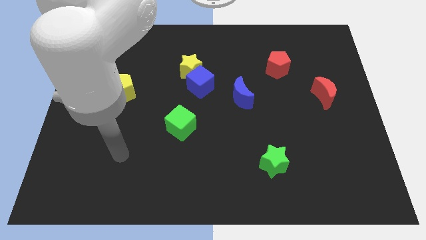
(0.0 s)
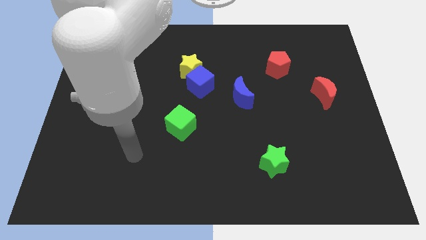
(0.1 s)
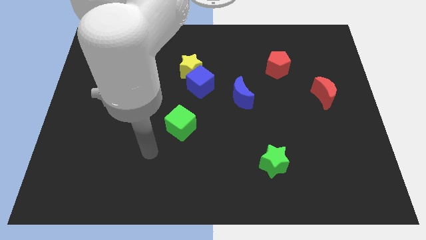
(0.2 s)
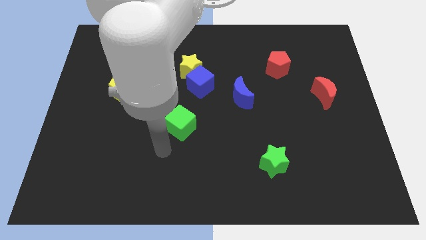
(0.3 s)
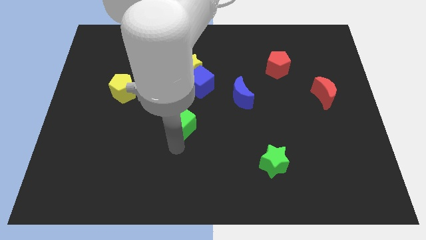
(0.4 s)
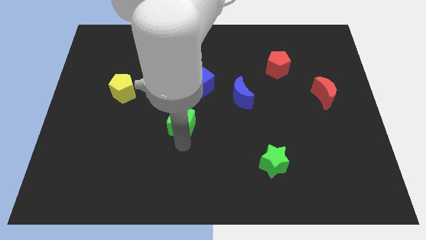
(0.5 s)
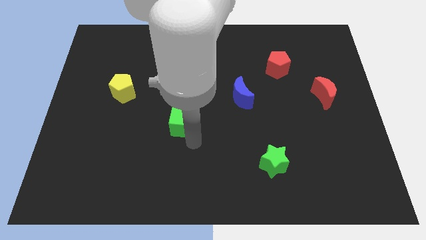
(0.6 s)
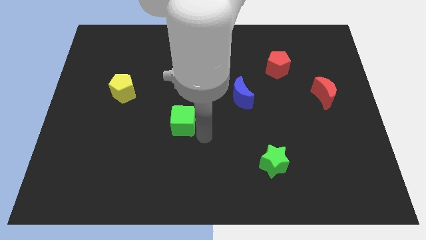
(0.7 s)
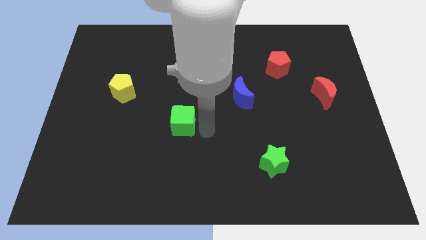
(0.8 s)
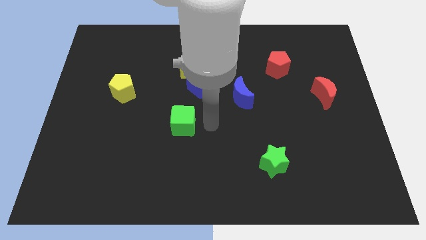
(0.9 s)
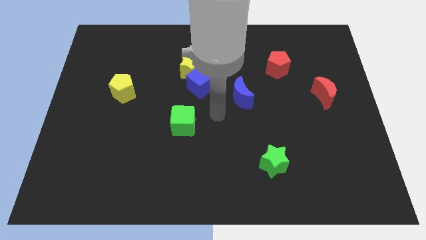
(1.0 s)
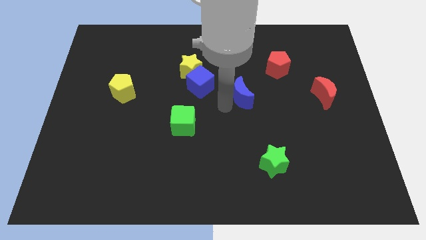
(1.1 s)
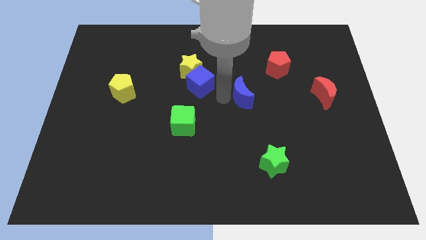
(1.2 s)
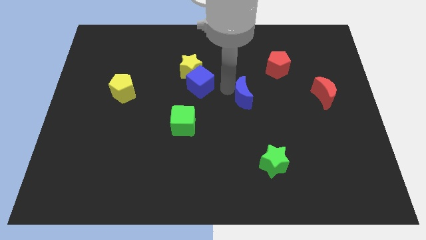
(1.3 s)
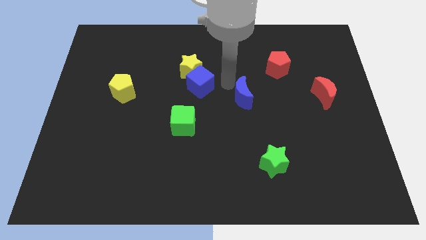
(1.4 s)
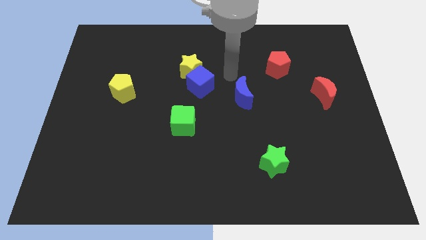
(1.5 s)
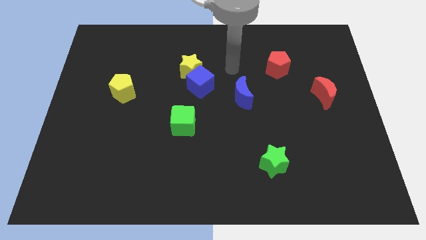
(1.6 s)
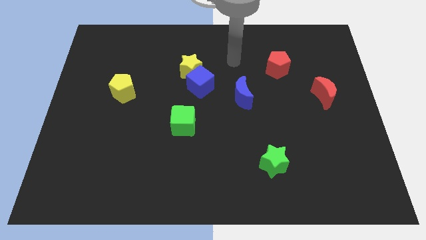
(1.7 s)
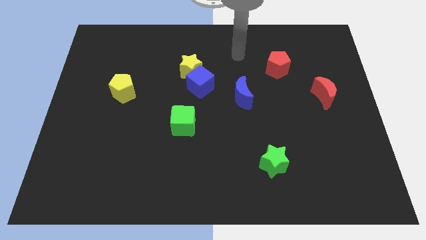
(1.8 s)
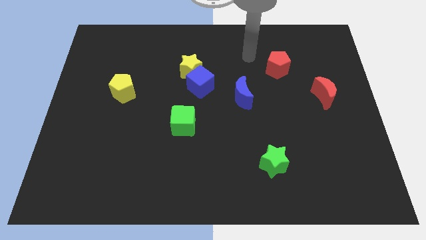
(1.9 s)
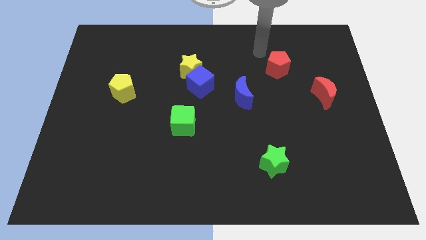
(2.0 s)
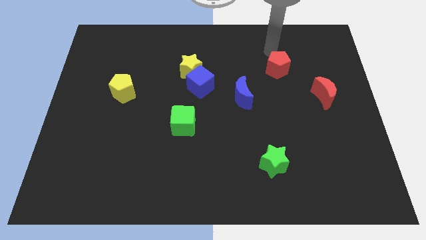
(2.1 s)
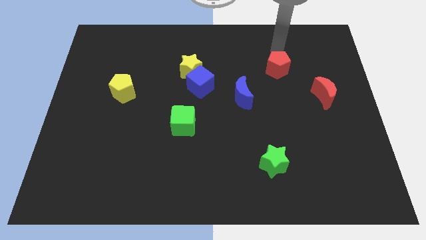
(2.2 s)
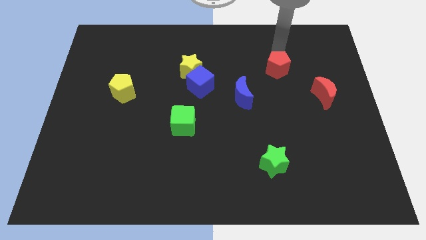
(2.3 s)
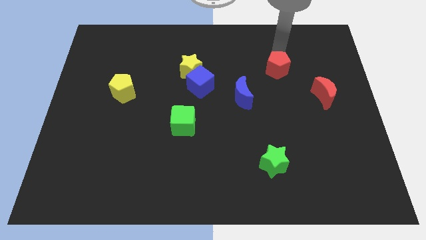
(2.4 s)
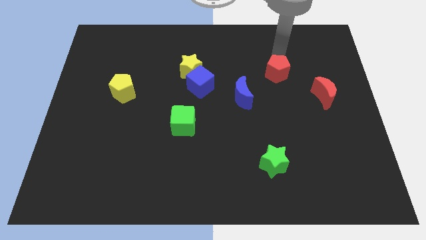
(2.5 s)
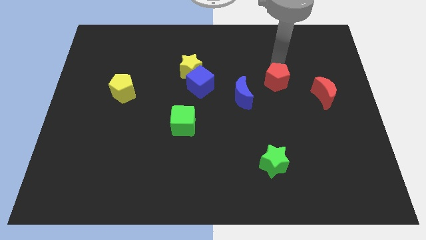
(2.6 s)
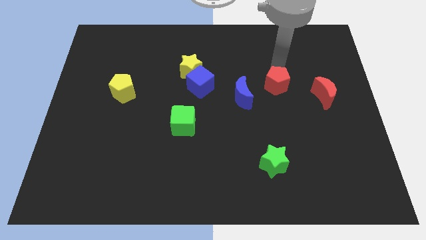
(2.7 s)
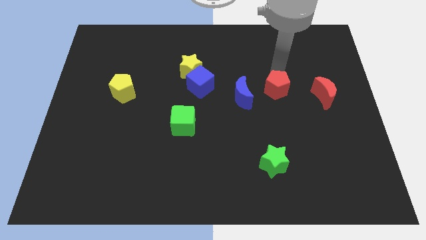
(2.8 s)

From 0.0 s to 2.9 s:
move the red pentagon down somewhat

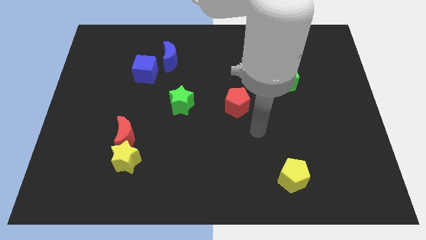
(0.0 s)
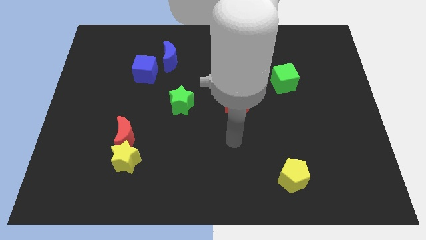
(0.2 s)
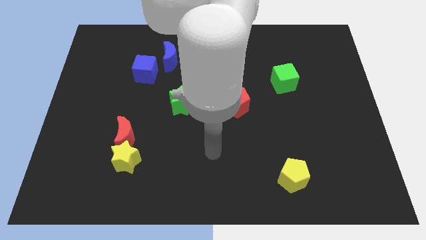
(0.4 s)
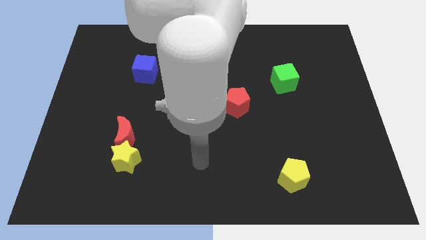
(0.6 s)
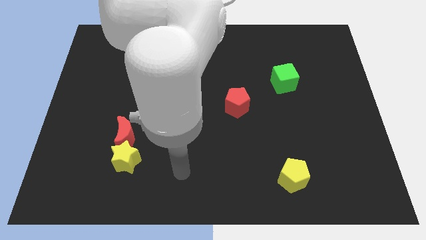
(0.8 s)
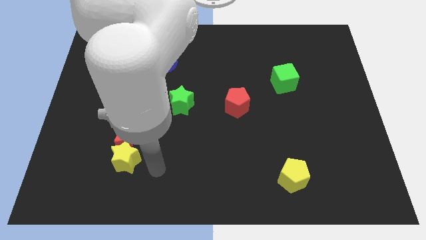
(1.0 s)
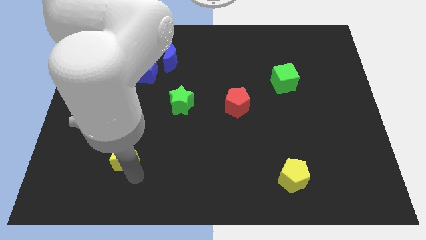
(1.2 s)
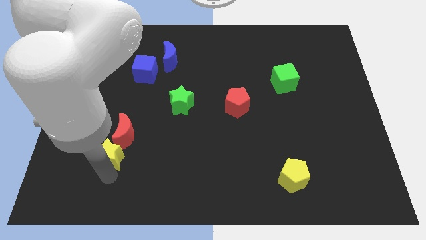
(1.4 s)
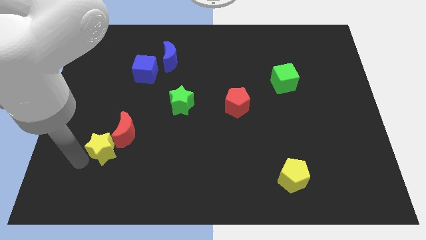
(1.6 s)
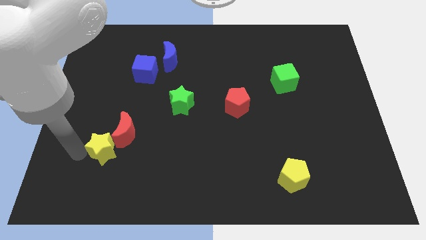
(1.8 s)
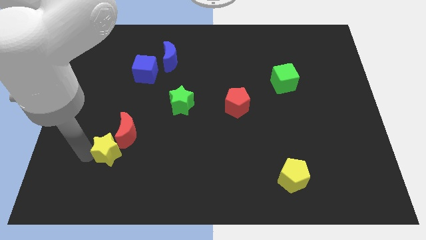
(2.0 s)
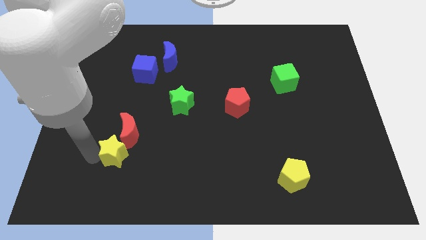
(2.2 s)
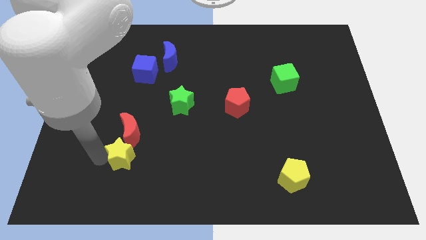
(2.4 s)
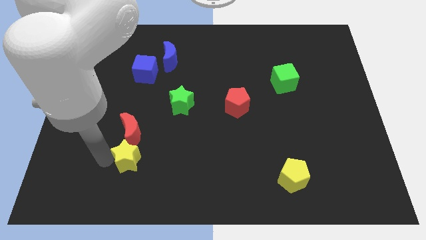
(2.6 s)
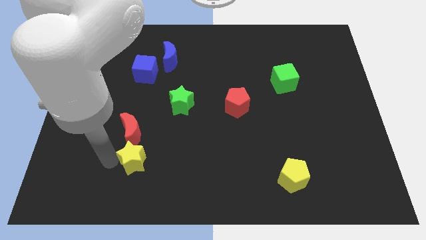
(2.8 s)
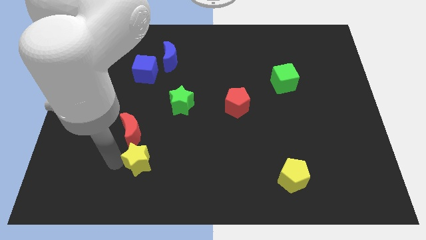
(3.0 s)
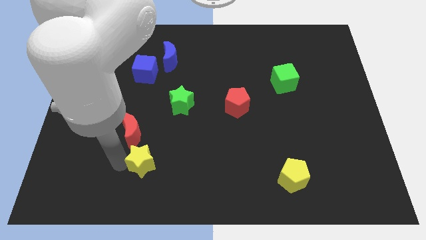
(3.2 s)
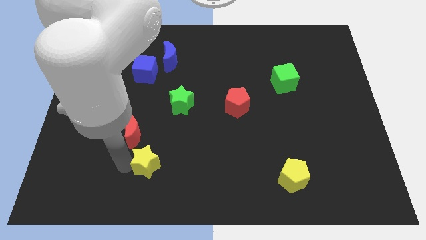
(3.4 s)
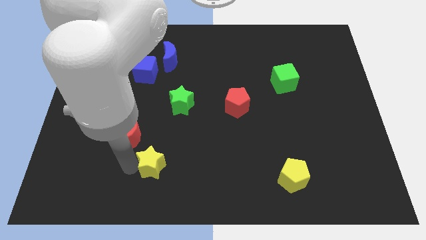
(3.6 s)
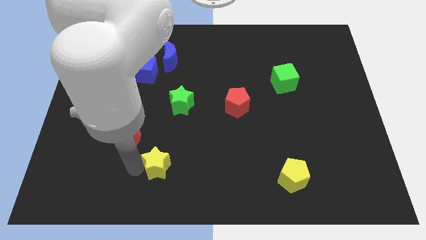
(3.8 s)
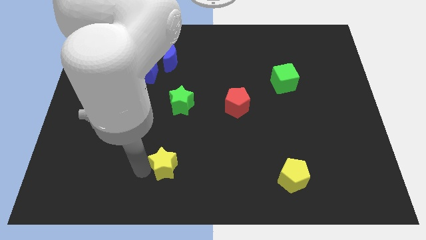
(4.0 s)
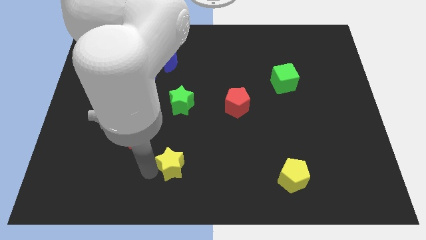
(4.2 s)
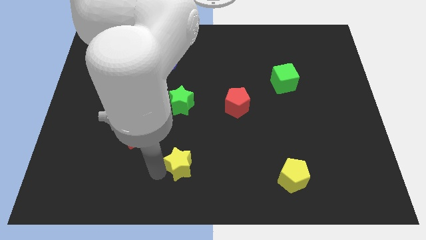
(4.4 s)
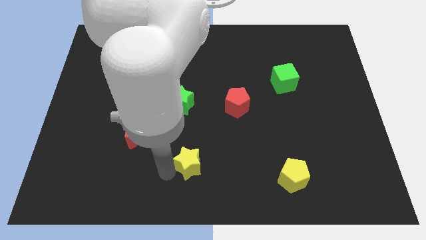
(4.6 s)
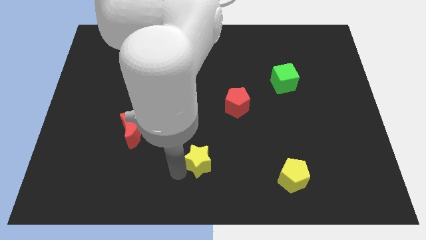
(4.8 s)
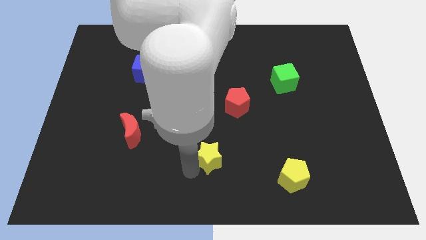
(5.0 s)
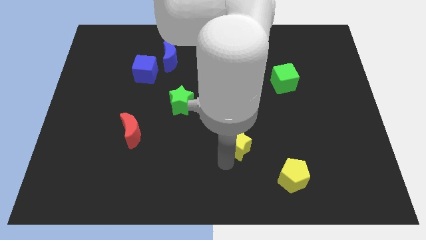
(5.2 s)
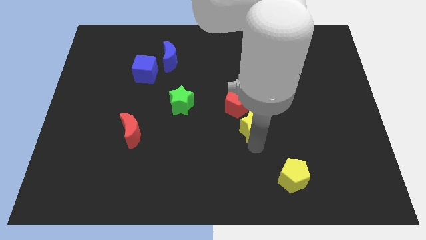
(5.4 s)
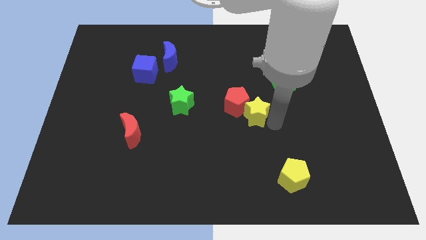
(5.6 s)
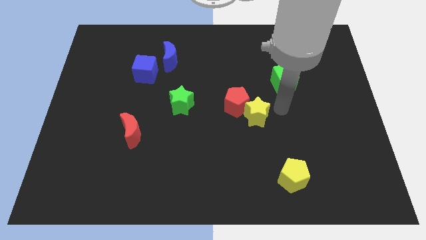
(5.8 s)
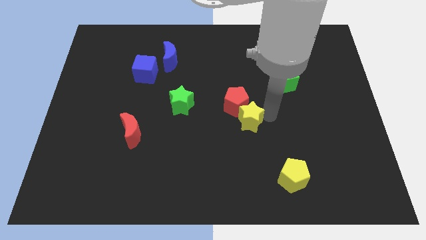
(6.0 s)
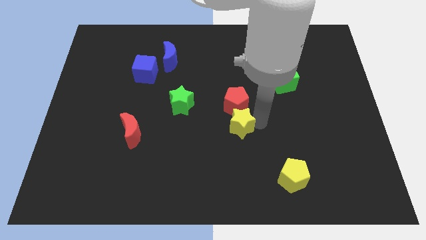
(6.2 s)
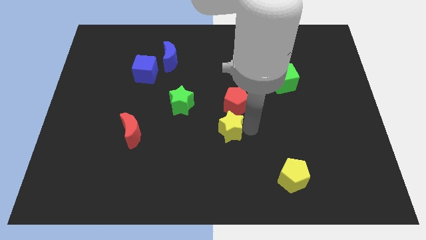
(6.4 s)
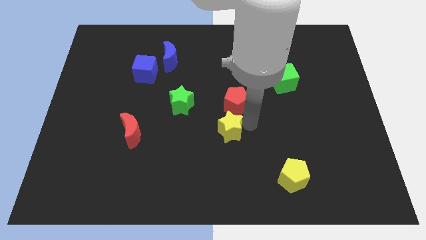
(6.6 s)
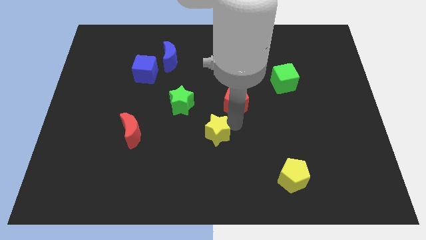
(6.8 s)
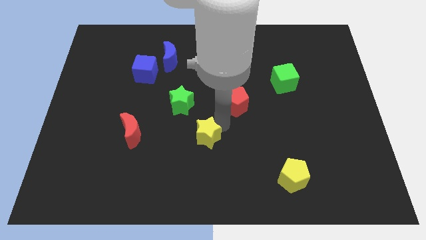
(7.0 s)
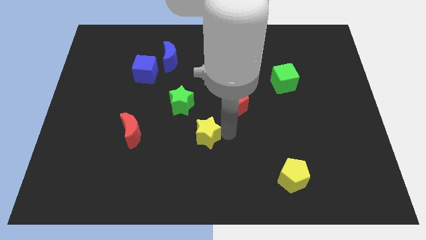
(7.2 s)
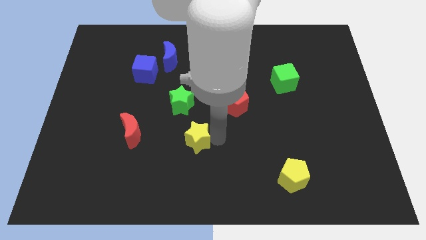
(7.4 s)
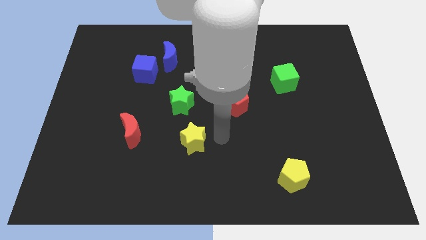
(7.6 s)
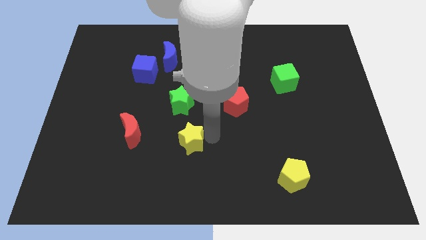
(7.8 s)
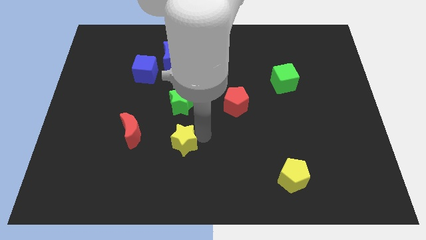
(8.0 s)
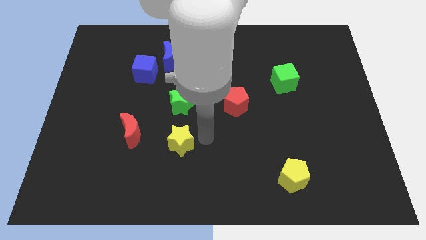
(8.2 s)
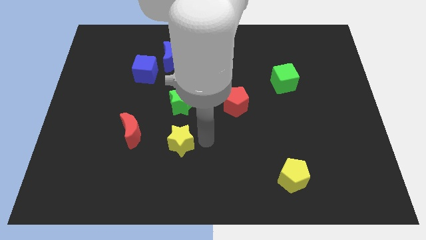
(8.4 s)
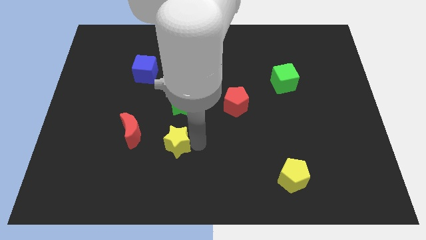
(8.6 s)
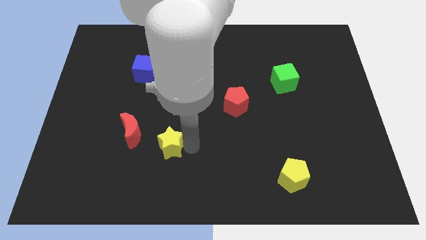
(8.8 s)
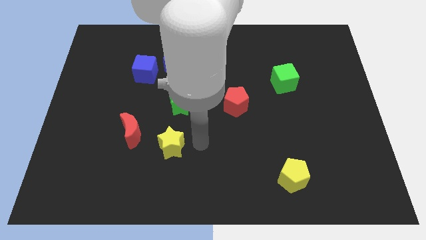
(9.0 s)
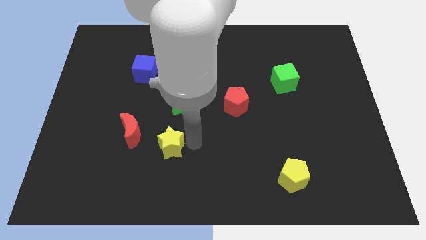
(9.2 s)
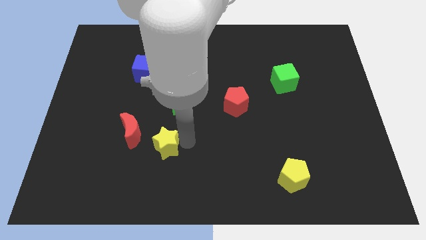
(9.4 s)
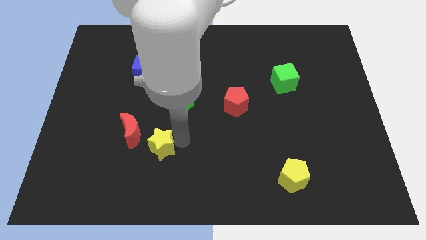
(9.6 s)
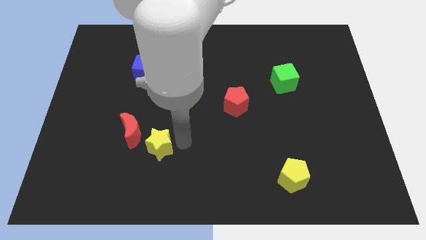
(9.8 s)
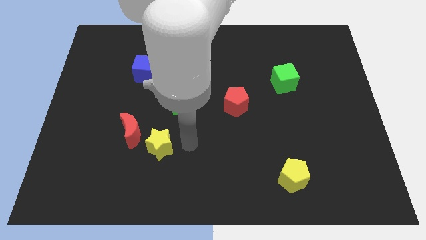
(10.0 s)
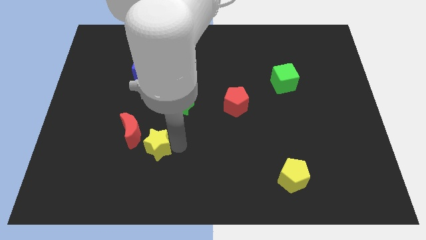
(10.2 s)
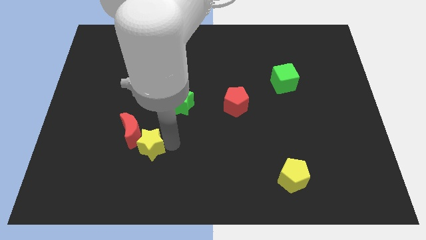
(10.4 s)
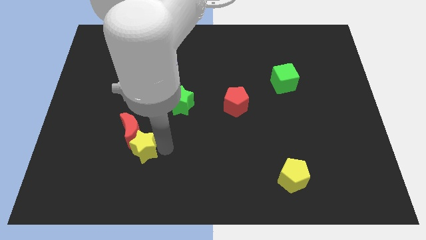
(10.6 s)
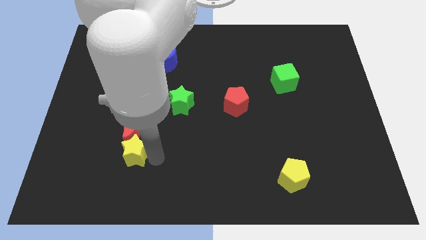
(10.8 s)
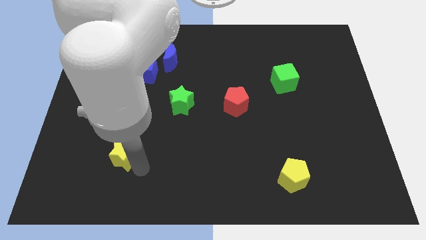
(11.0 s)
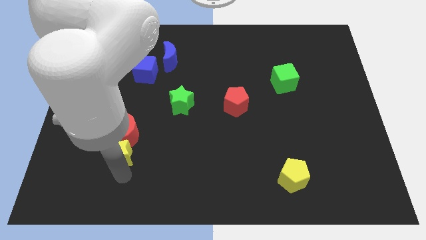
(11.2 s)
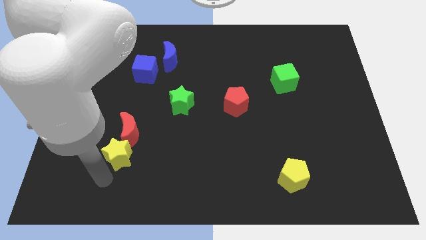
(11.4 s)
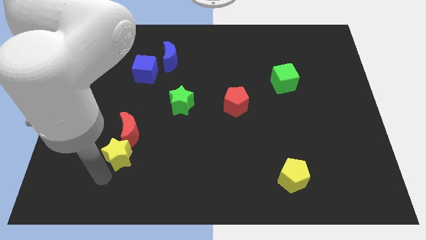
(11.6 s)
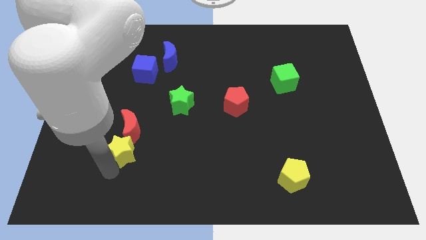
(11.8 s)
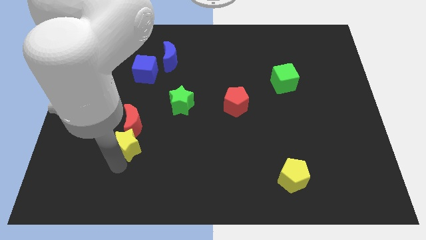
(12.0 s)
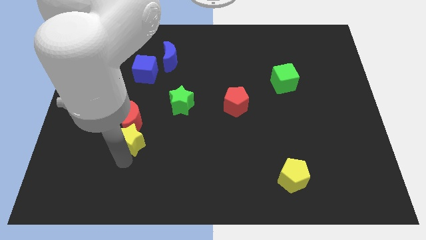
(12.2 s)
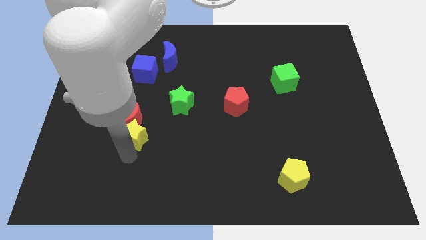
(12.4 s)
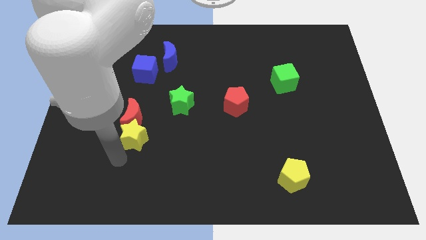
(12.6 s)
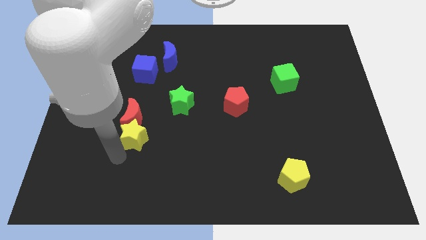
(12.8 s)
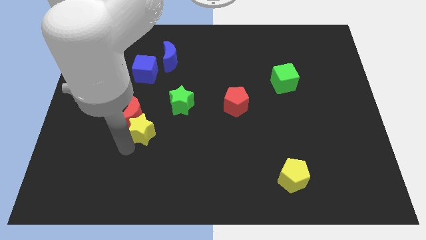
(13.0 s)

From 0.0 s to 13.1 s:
slide the yellow star up a little
